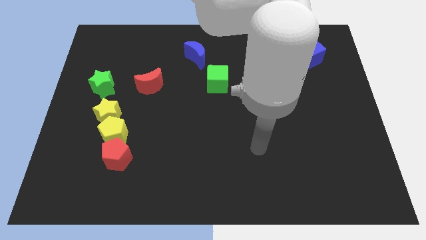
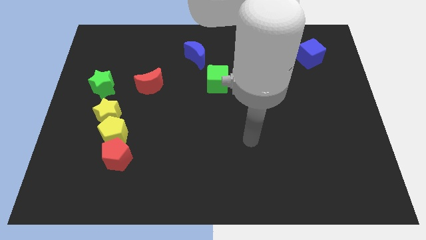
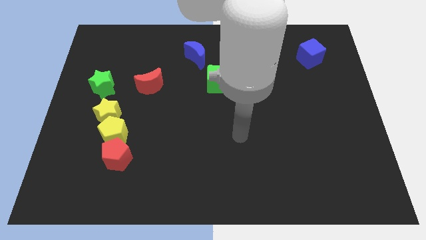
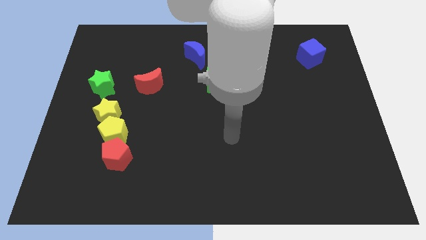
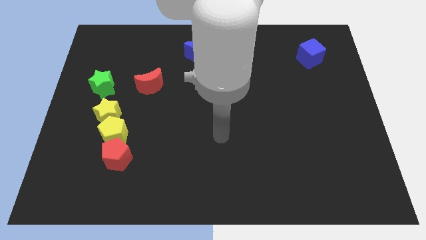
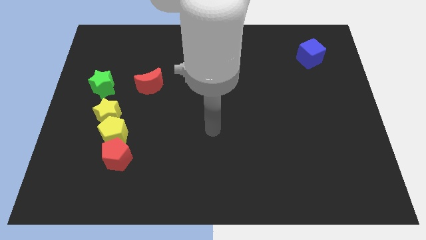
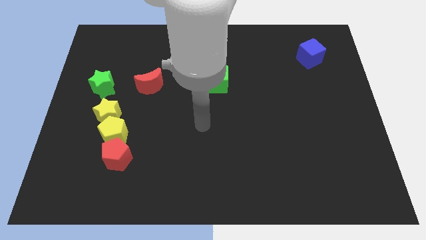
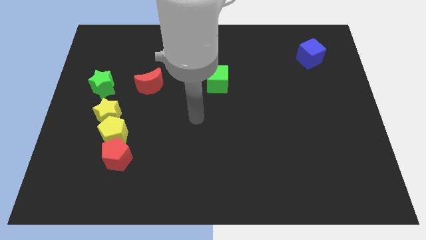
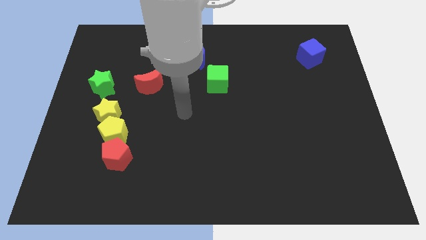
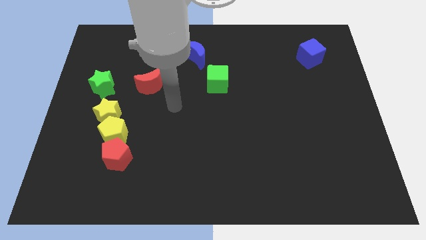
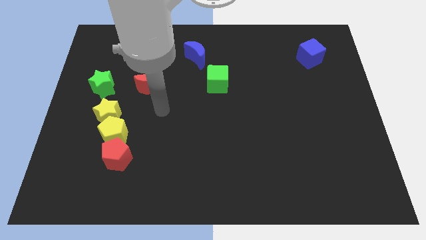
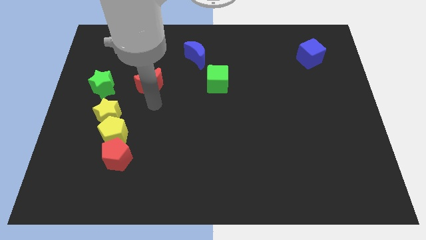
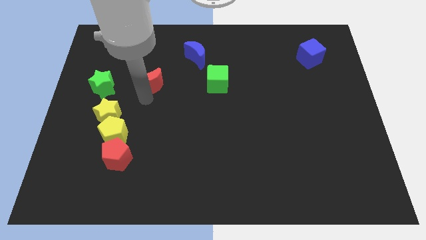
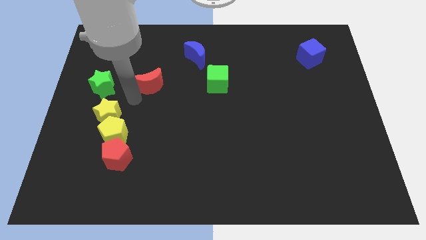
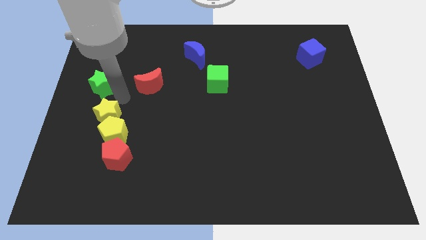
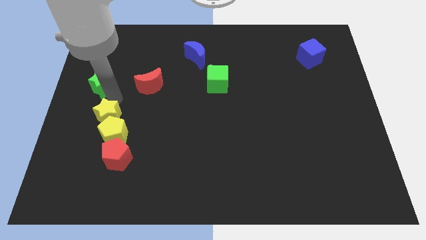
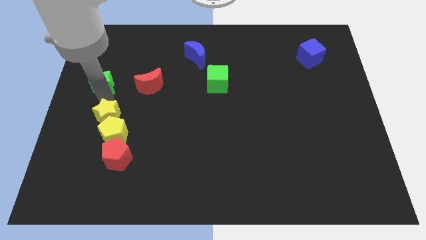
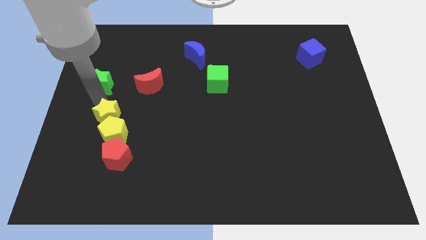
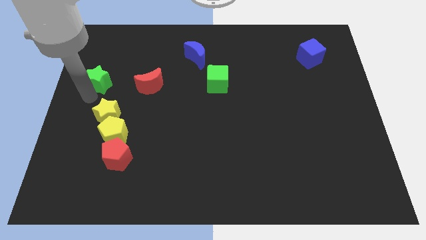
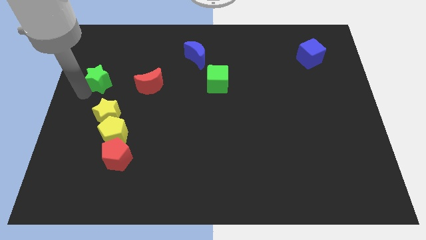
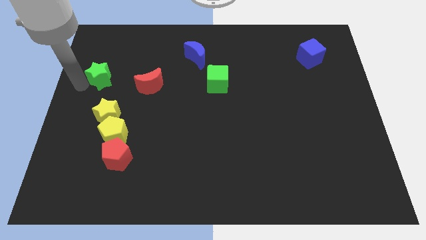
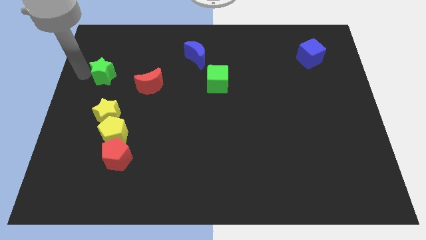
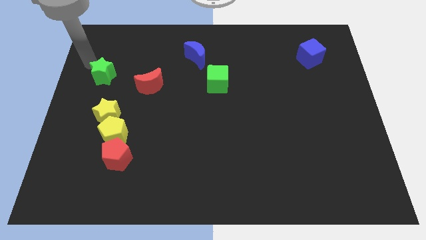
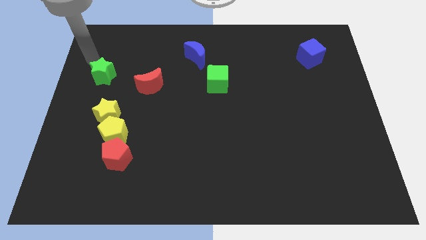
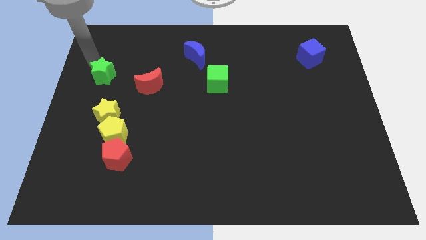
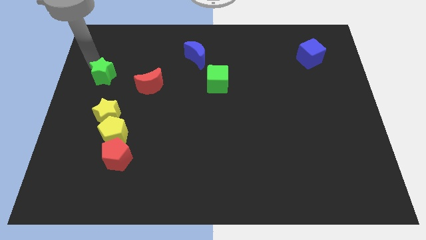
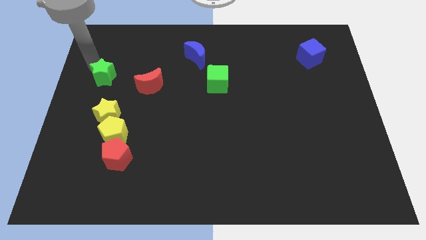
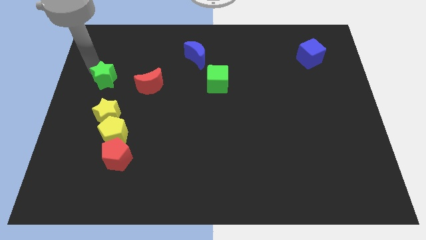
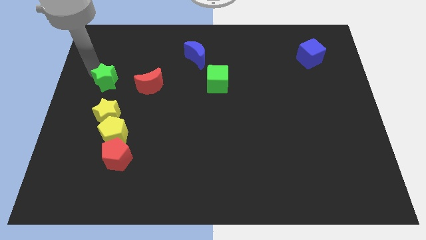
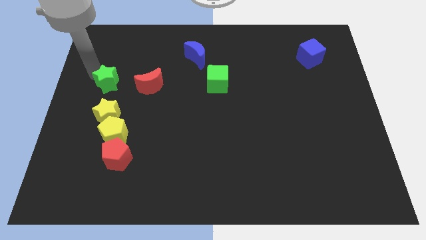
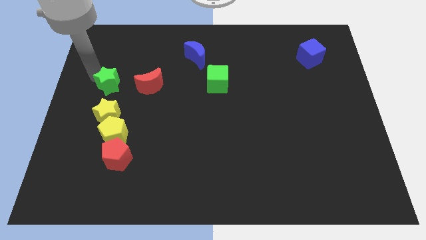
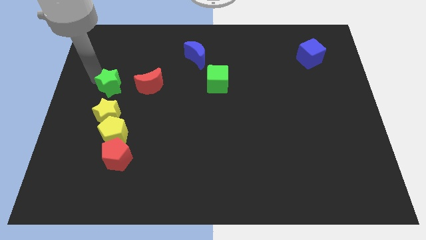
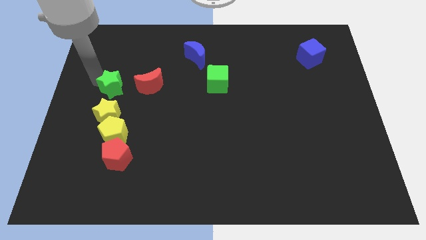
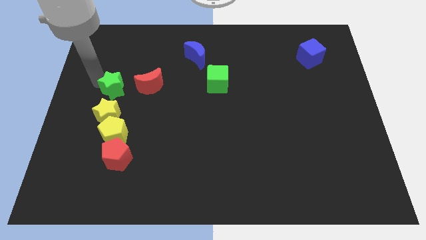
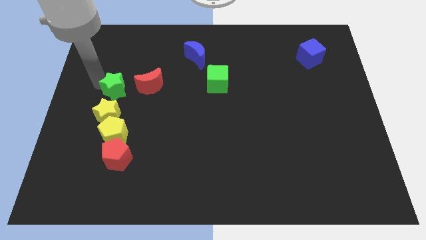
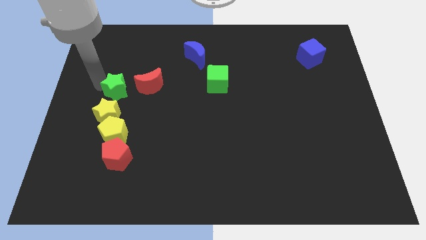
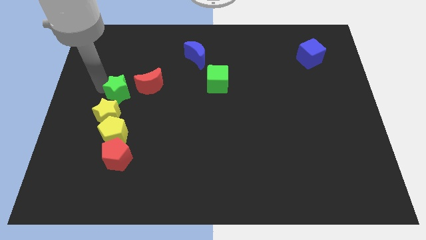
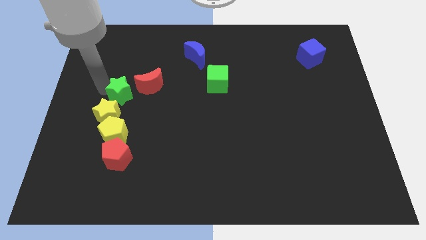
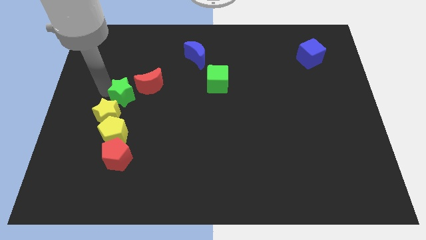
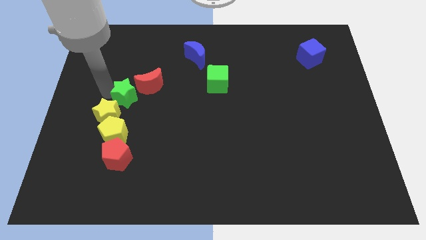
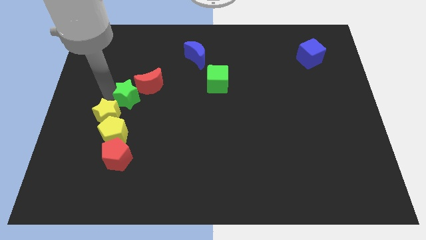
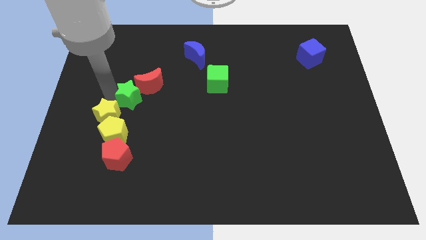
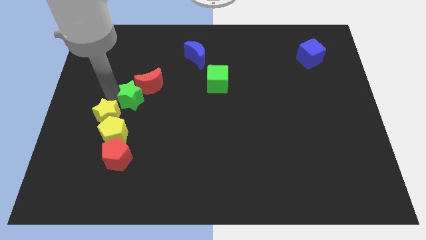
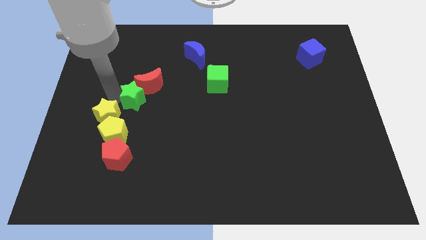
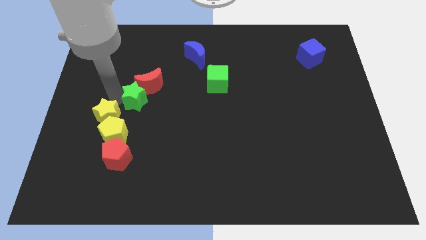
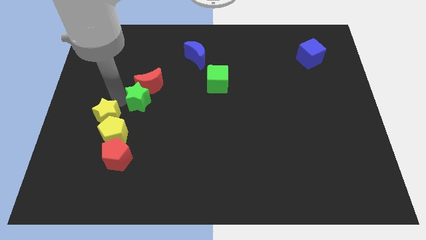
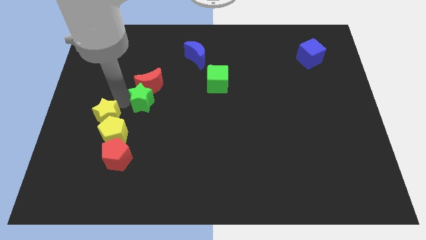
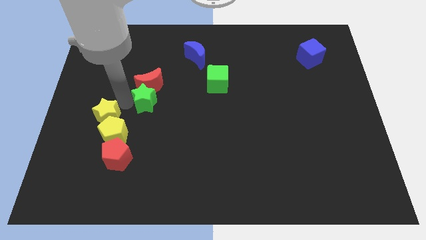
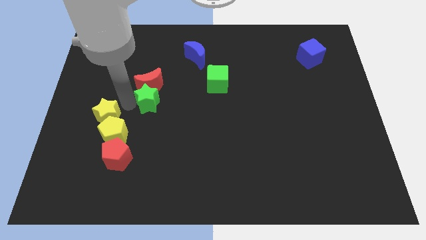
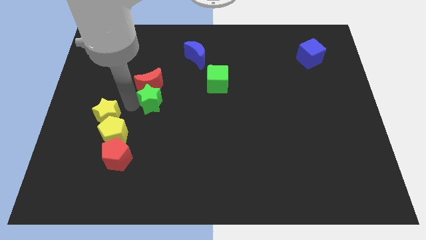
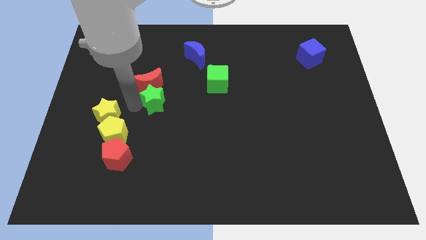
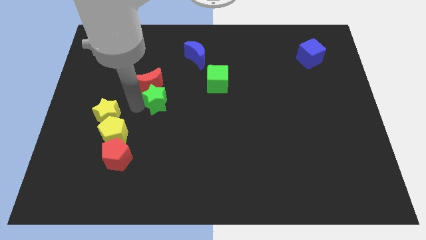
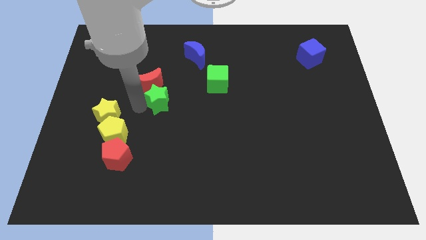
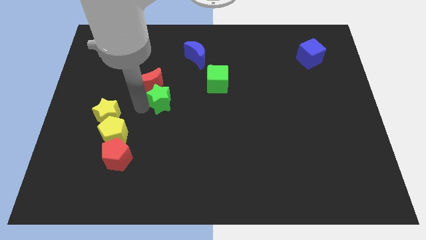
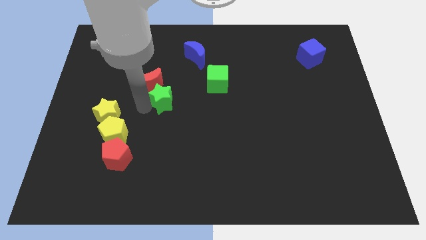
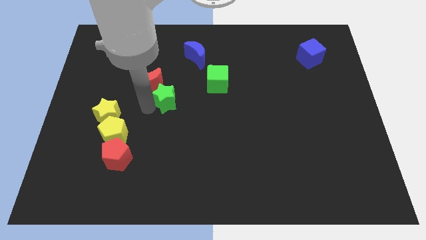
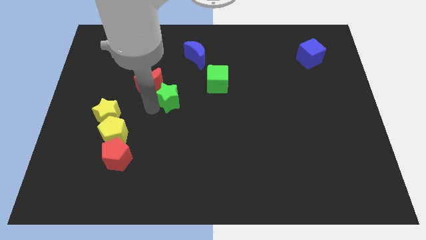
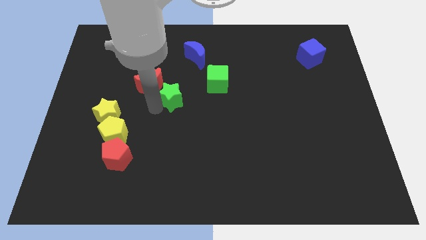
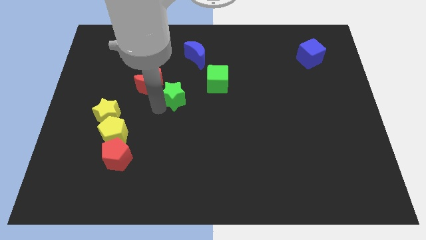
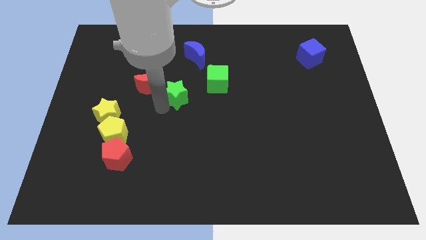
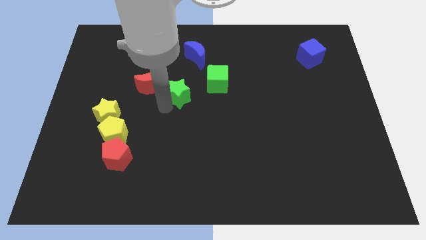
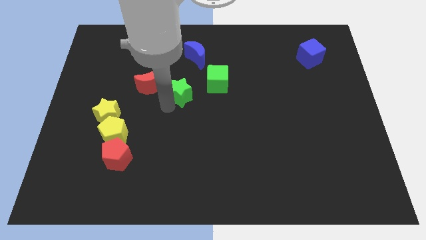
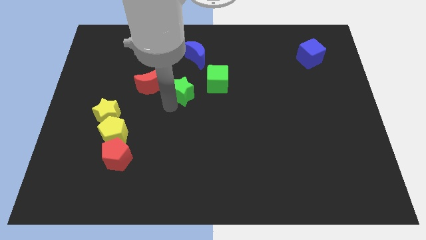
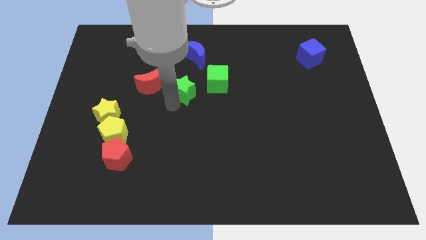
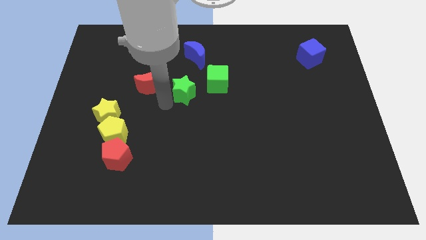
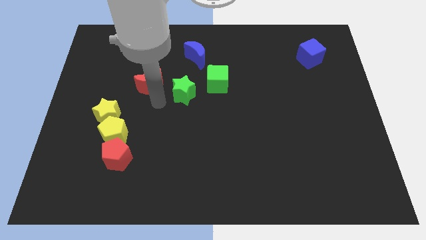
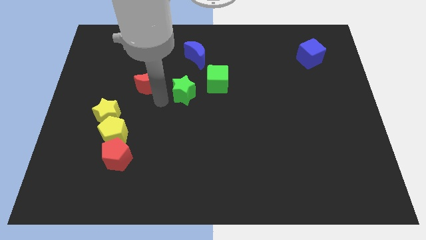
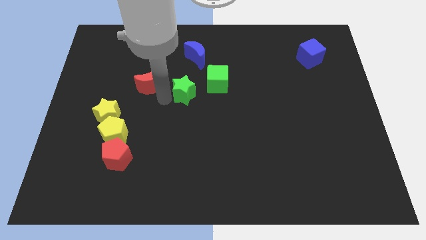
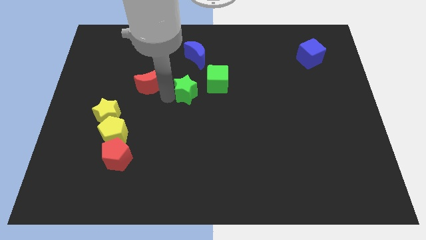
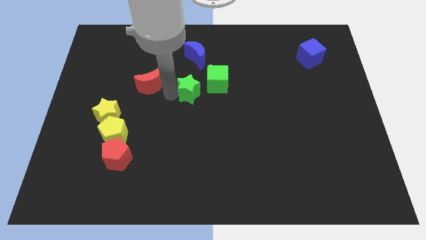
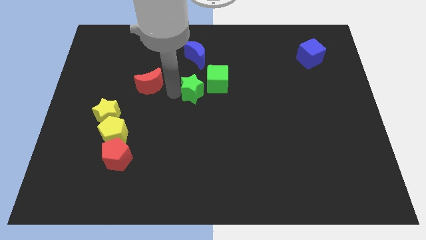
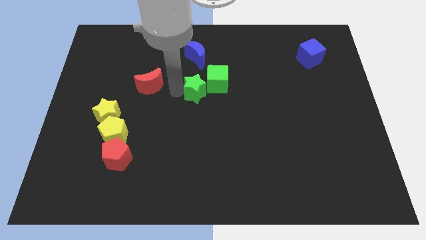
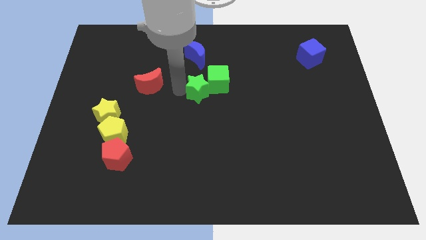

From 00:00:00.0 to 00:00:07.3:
move the green star close to the green cube

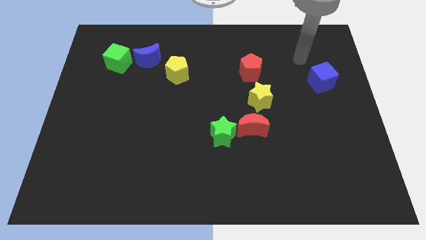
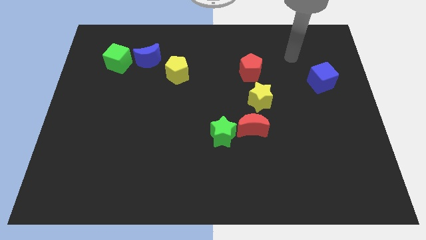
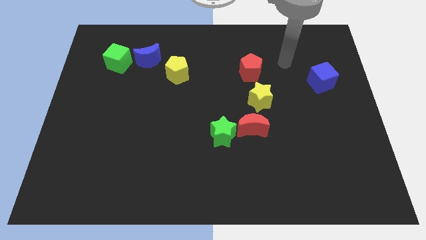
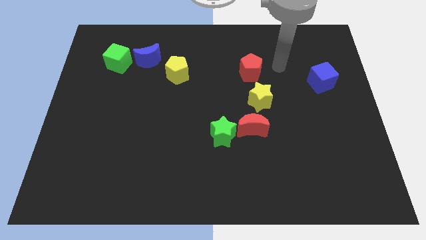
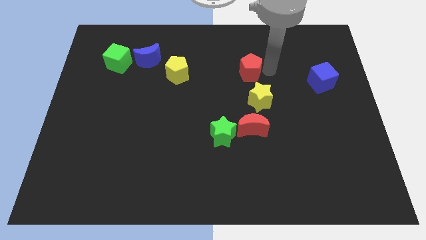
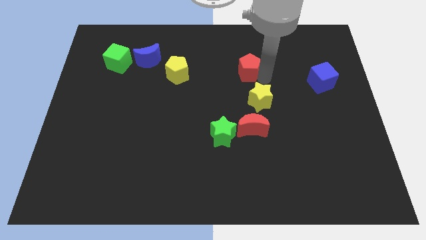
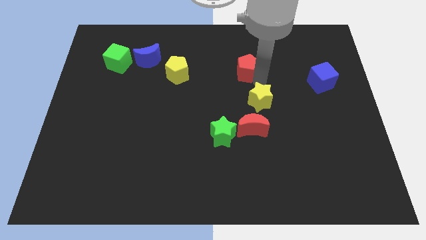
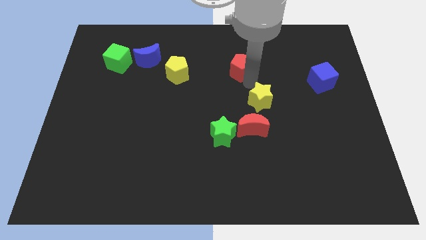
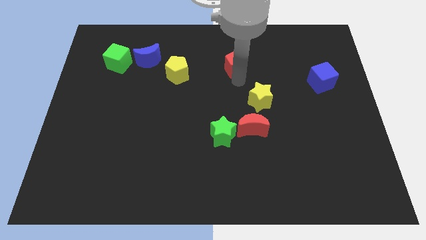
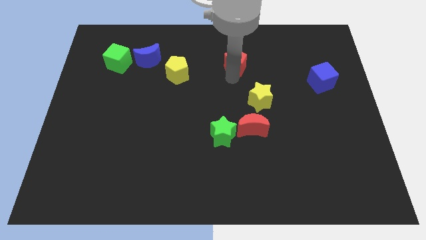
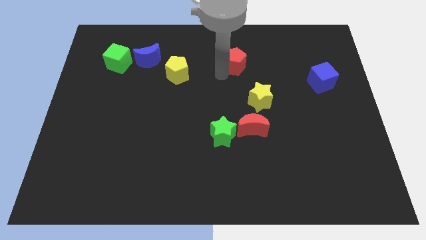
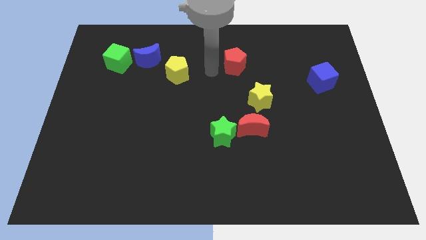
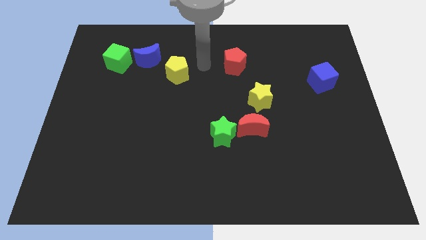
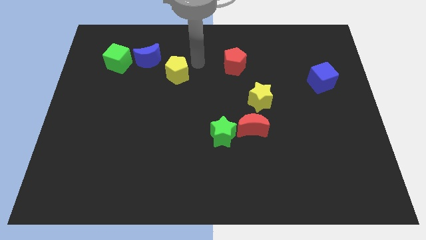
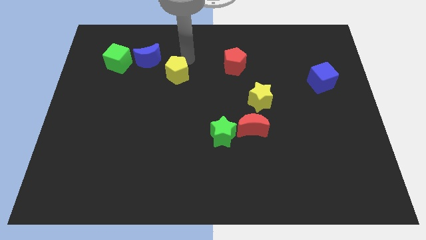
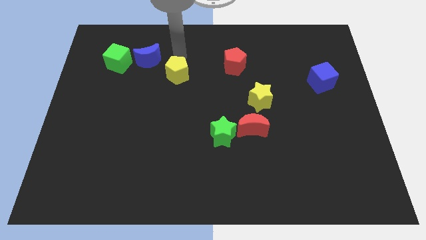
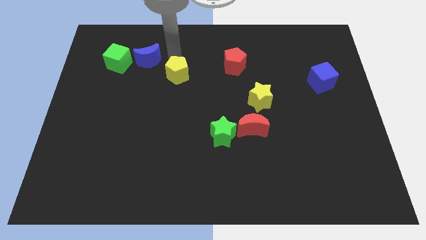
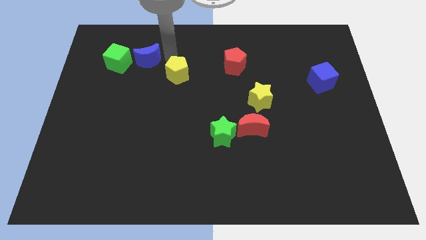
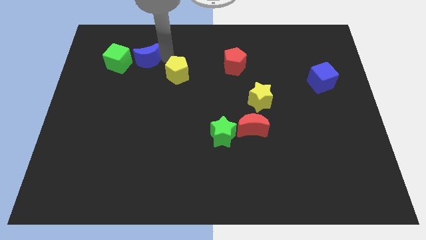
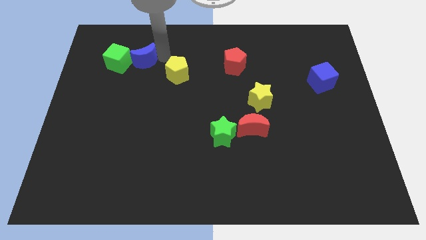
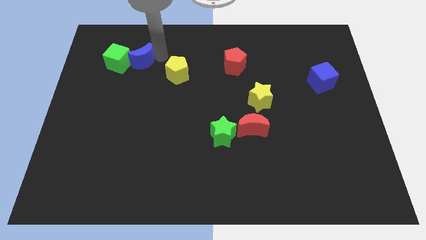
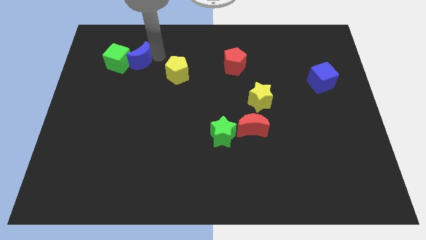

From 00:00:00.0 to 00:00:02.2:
push the blue moon close to the green cube
